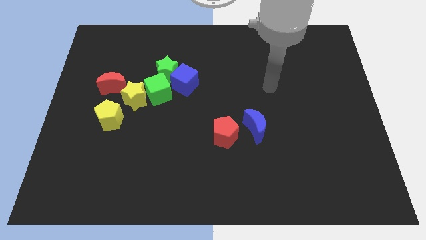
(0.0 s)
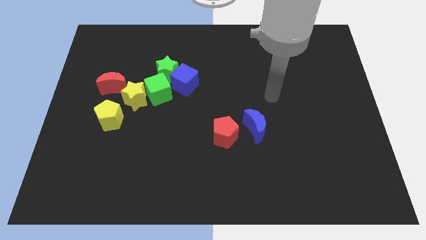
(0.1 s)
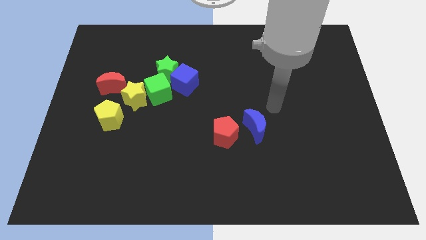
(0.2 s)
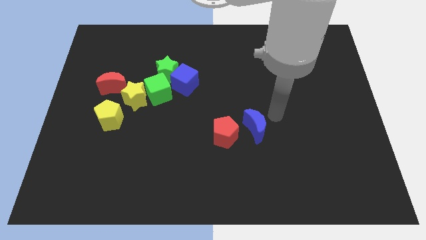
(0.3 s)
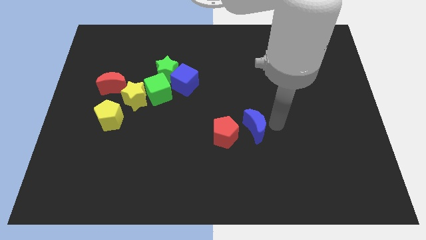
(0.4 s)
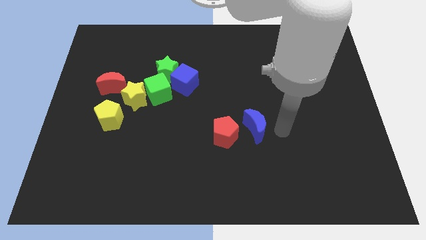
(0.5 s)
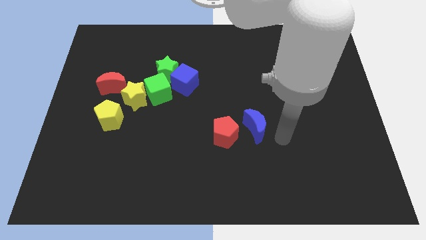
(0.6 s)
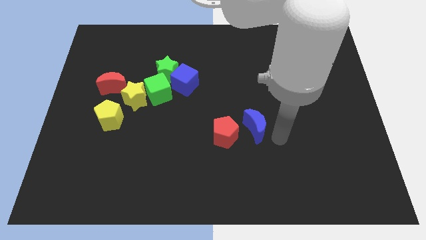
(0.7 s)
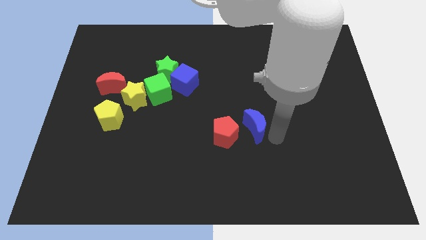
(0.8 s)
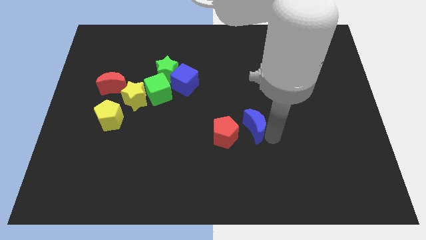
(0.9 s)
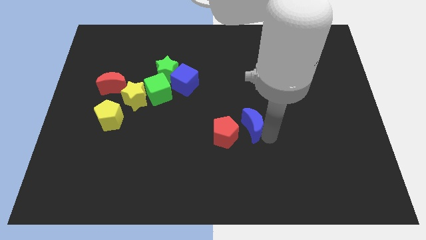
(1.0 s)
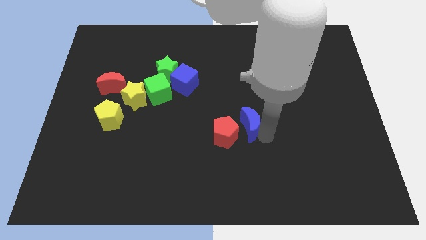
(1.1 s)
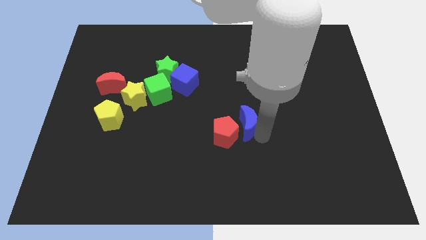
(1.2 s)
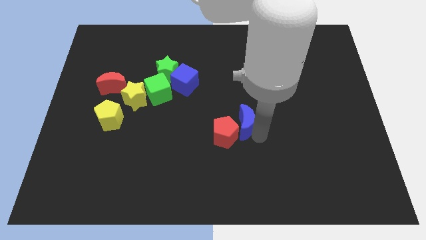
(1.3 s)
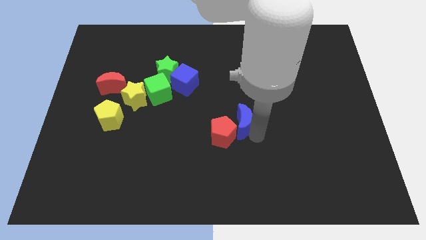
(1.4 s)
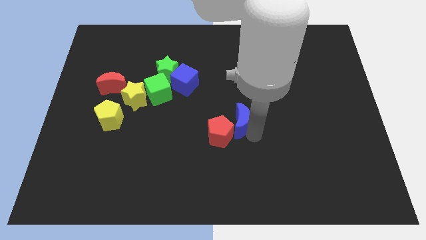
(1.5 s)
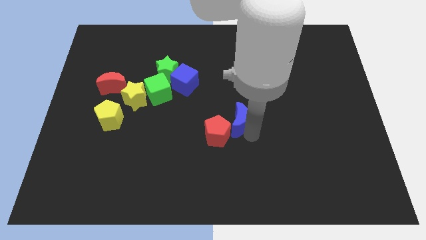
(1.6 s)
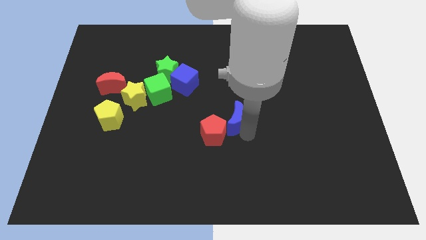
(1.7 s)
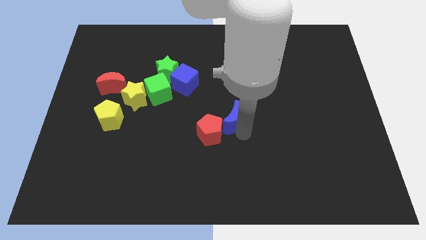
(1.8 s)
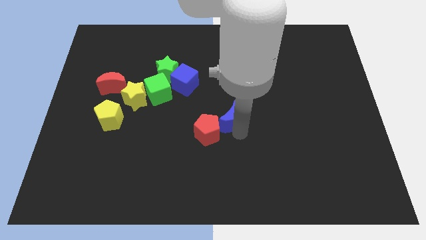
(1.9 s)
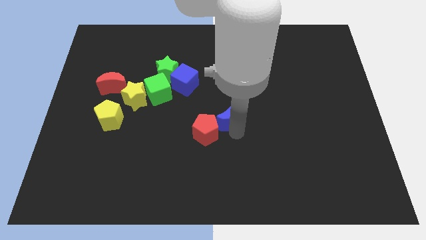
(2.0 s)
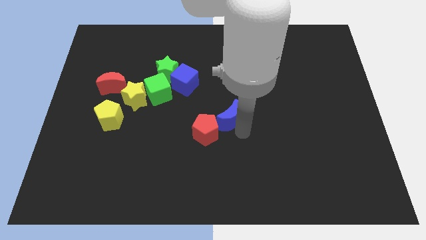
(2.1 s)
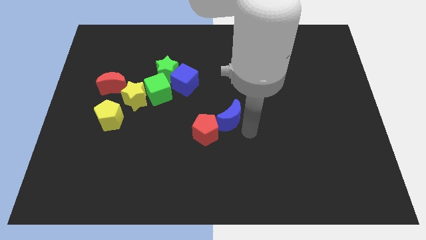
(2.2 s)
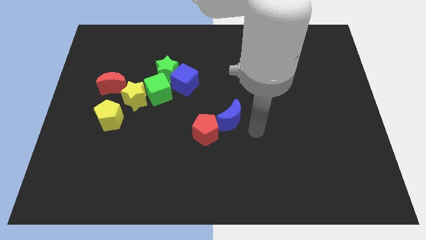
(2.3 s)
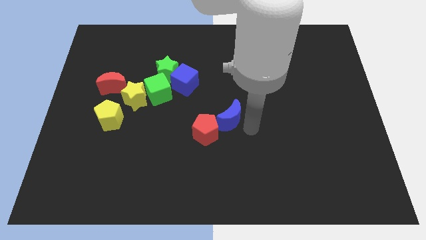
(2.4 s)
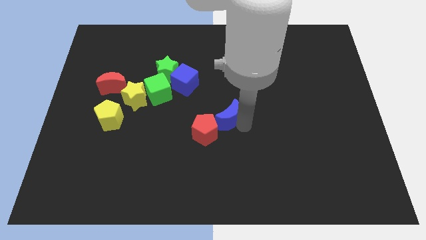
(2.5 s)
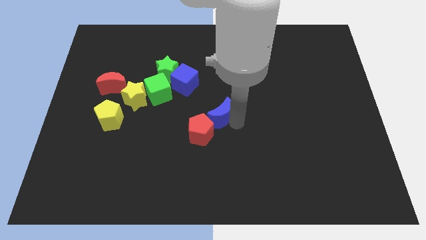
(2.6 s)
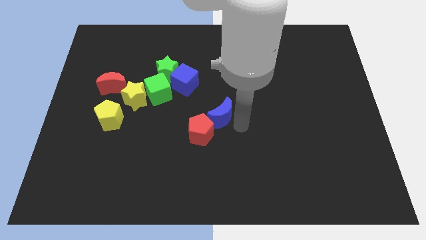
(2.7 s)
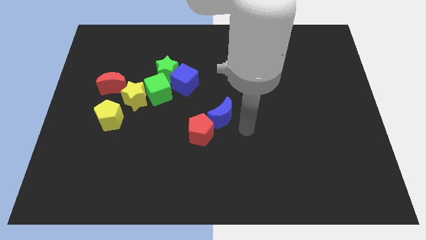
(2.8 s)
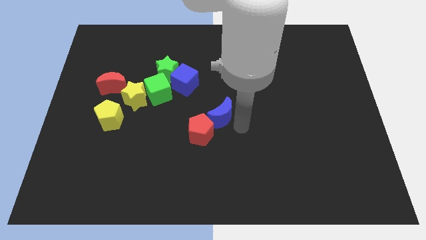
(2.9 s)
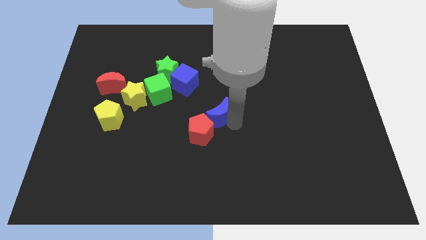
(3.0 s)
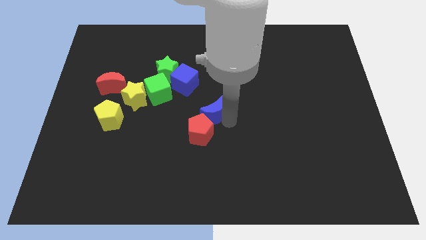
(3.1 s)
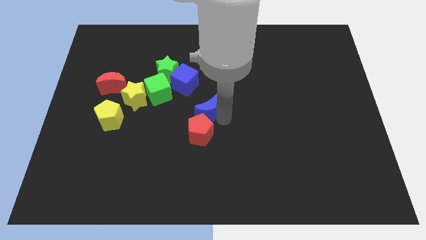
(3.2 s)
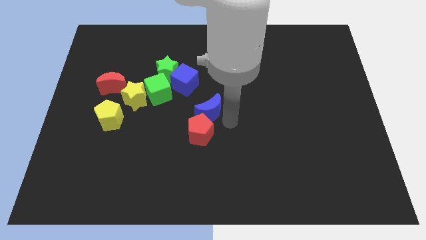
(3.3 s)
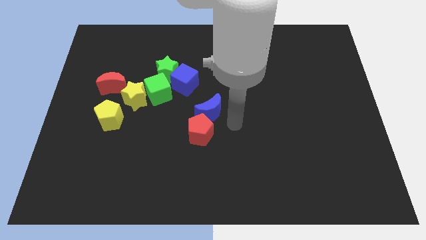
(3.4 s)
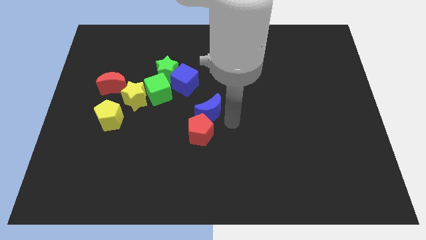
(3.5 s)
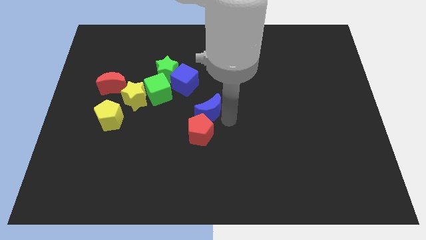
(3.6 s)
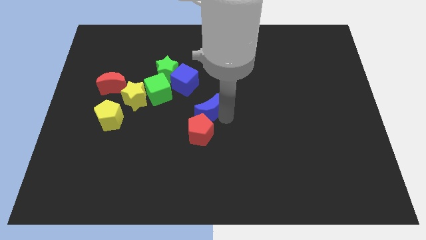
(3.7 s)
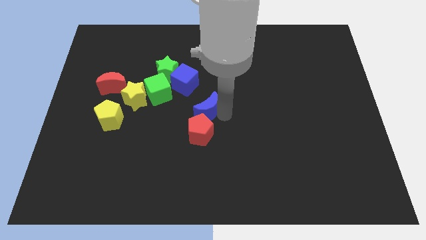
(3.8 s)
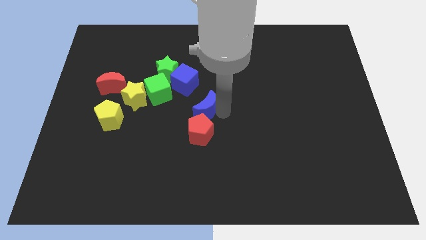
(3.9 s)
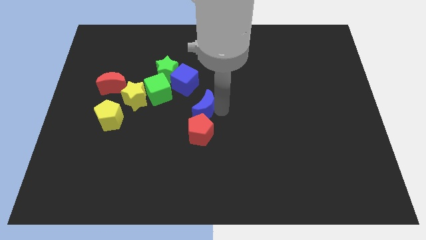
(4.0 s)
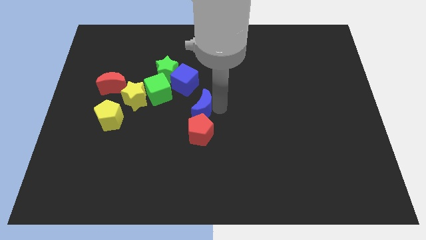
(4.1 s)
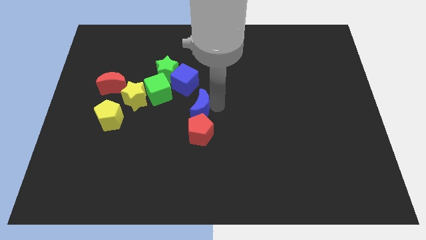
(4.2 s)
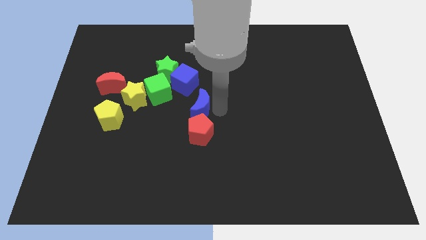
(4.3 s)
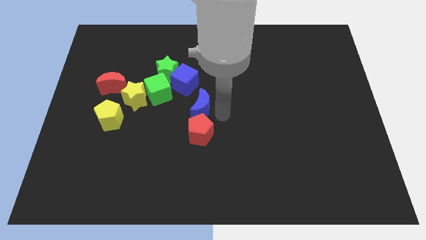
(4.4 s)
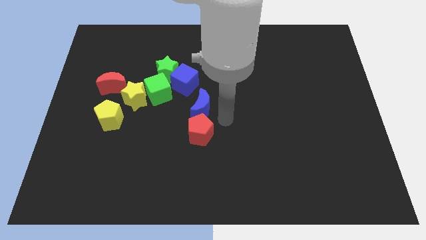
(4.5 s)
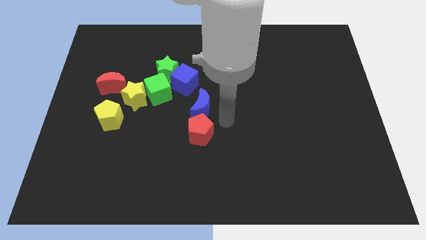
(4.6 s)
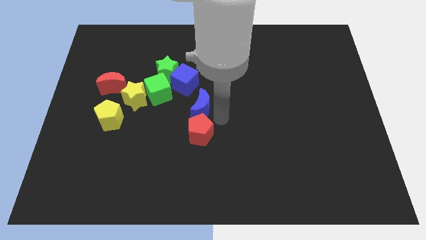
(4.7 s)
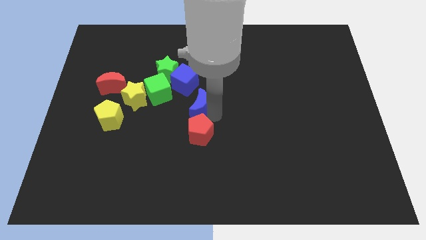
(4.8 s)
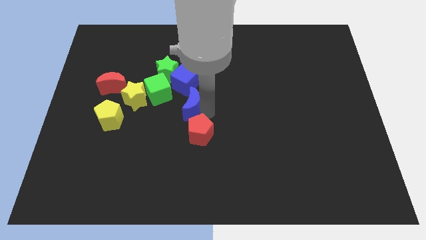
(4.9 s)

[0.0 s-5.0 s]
put the blue moon to the right of the yellow star
